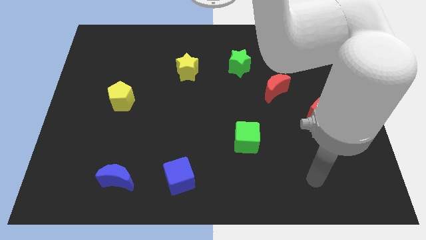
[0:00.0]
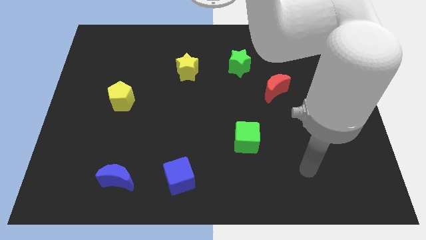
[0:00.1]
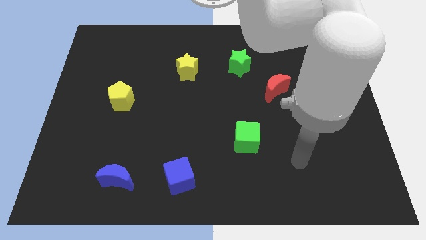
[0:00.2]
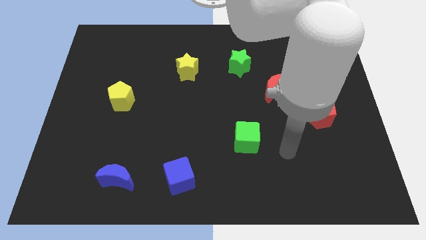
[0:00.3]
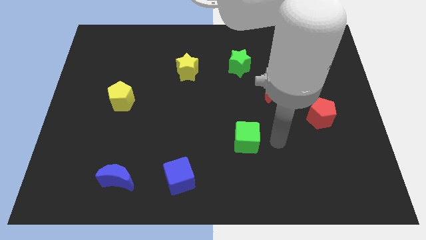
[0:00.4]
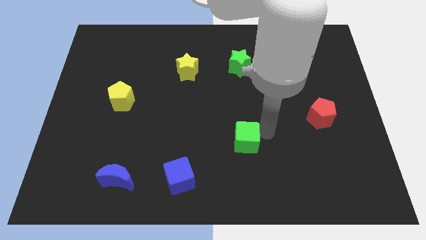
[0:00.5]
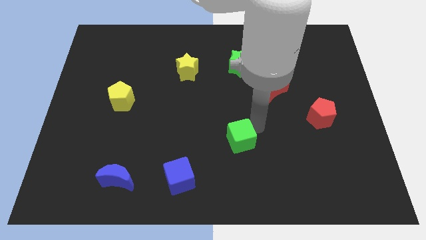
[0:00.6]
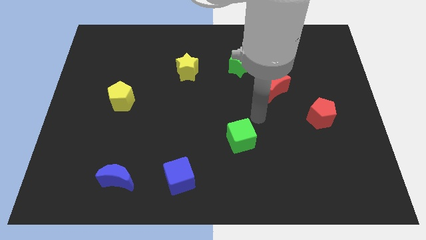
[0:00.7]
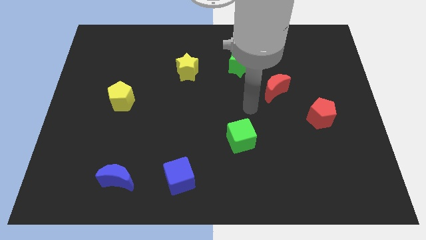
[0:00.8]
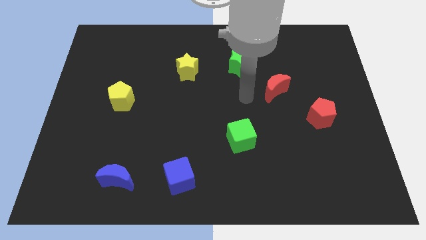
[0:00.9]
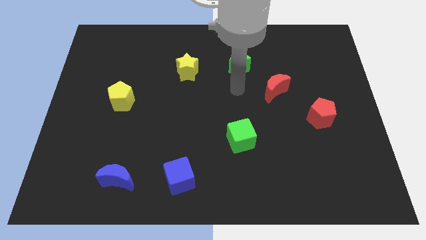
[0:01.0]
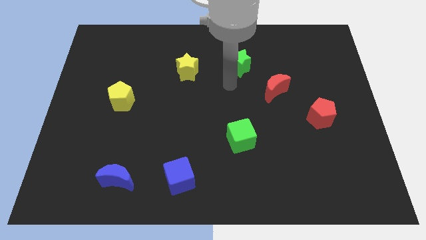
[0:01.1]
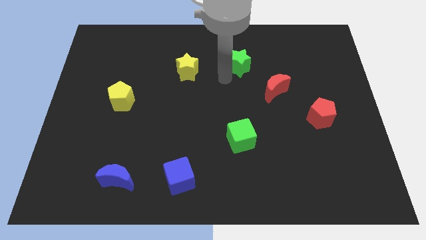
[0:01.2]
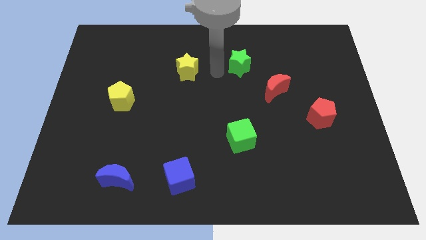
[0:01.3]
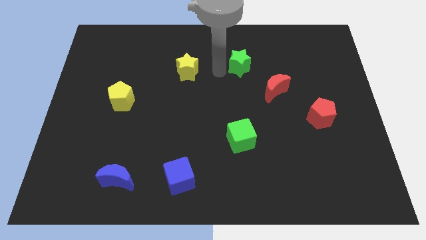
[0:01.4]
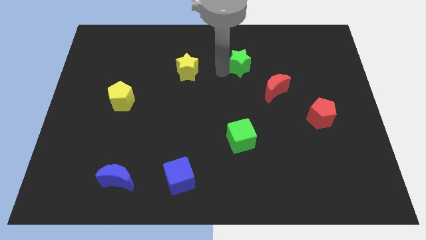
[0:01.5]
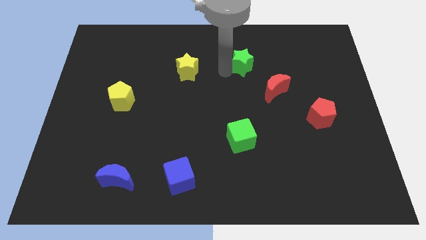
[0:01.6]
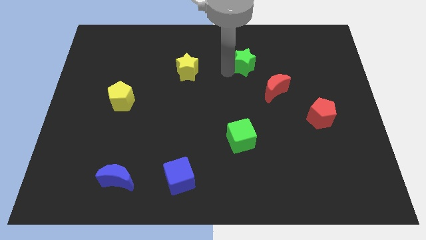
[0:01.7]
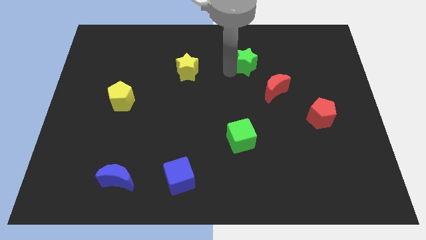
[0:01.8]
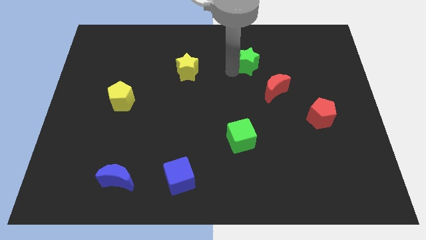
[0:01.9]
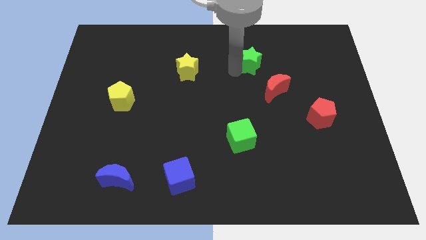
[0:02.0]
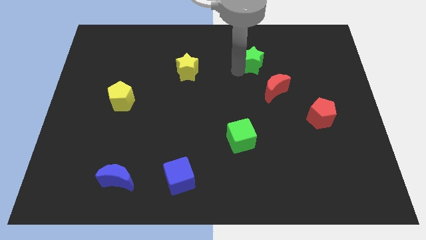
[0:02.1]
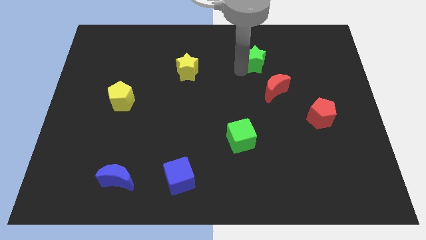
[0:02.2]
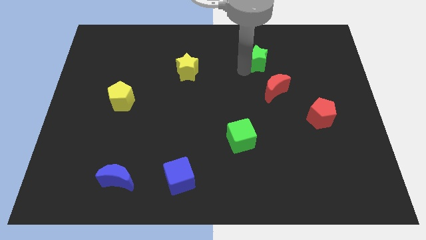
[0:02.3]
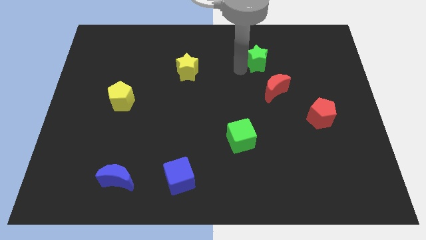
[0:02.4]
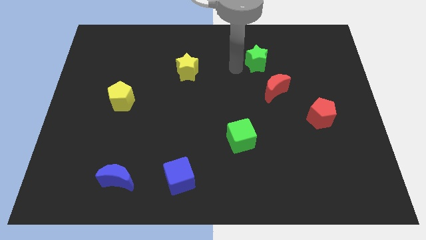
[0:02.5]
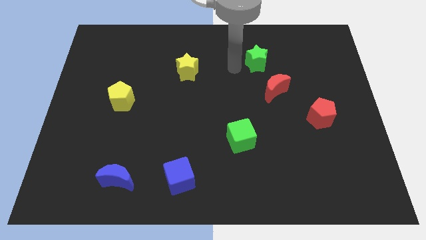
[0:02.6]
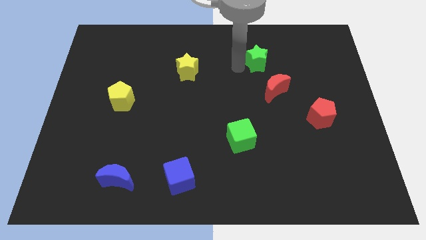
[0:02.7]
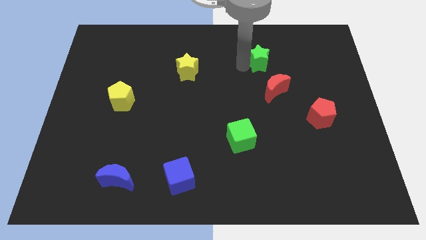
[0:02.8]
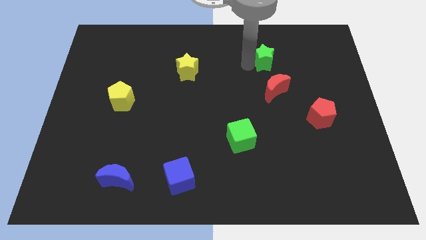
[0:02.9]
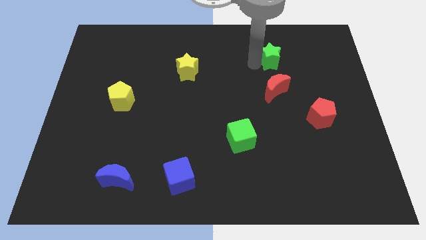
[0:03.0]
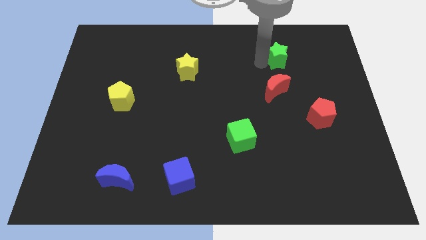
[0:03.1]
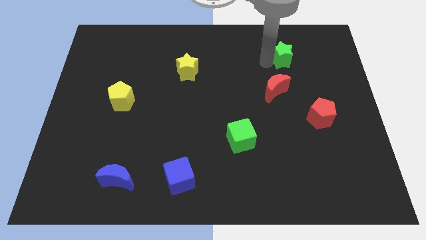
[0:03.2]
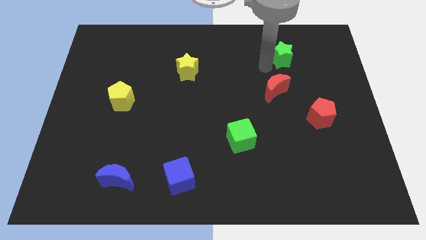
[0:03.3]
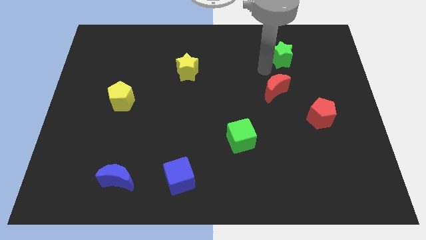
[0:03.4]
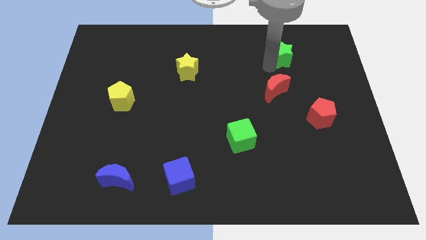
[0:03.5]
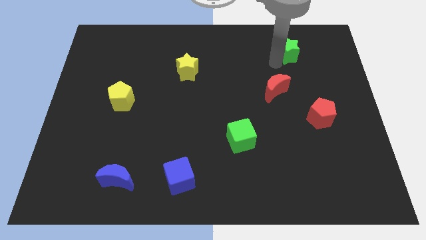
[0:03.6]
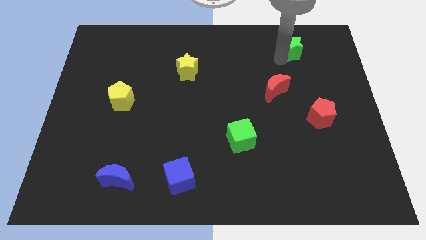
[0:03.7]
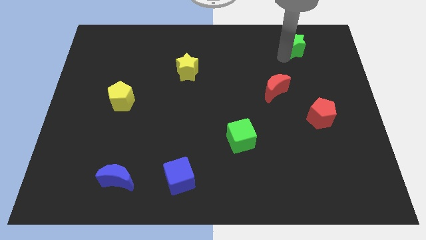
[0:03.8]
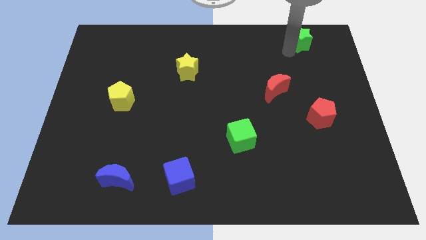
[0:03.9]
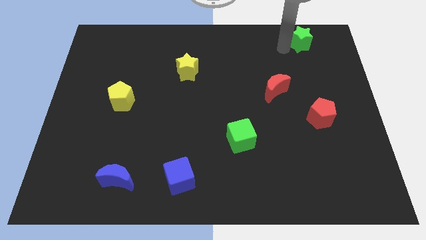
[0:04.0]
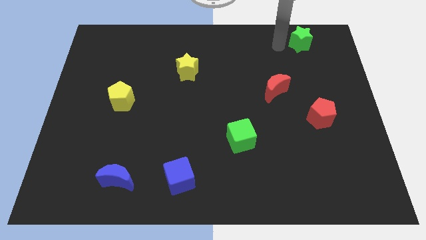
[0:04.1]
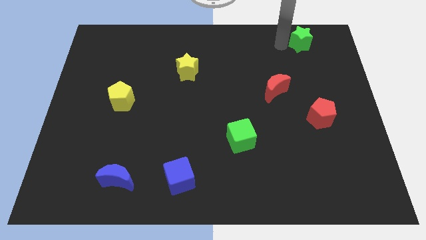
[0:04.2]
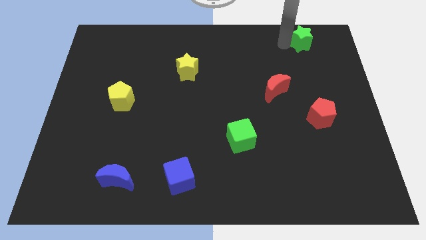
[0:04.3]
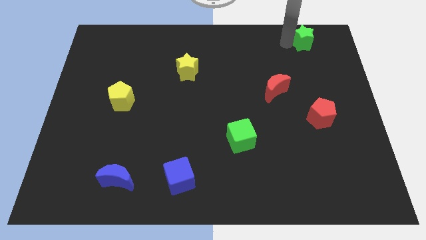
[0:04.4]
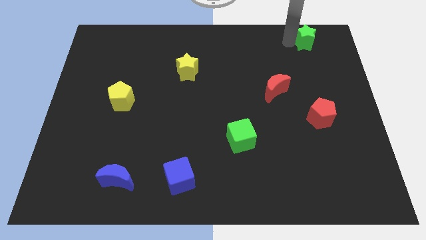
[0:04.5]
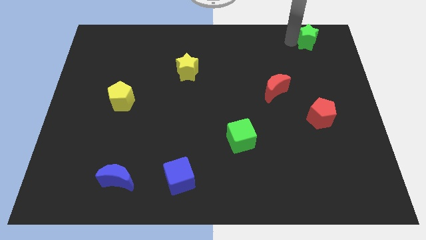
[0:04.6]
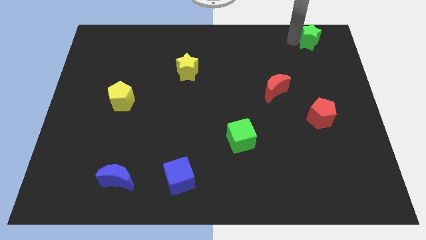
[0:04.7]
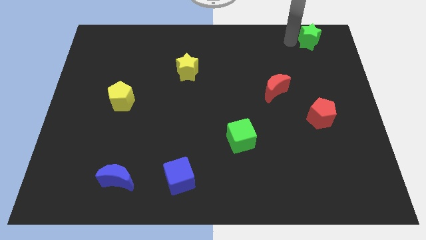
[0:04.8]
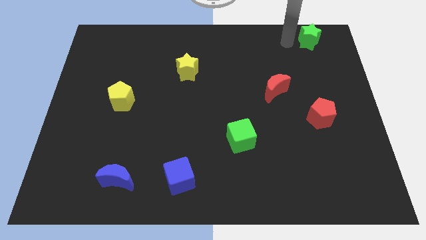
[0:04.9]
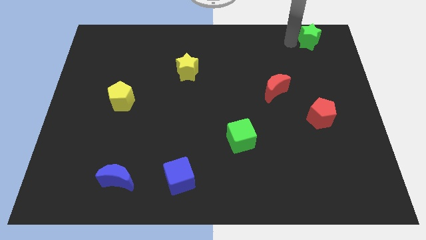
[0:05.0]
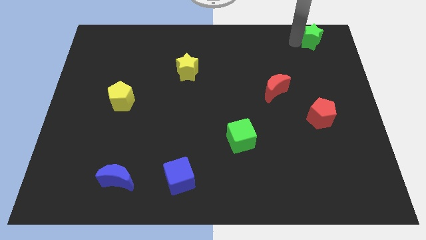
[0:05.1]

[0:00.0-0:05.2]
put the green star to the top right of the board

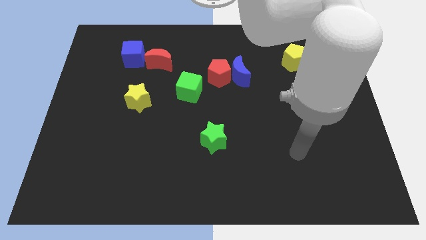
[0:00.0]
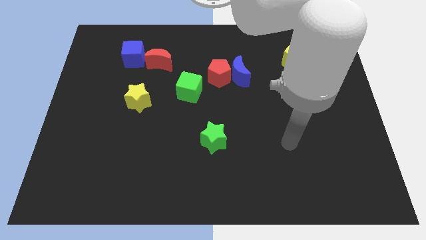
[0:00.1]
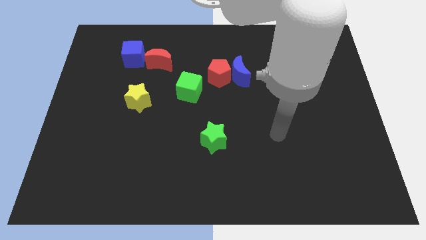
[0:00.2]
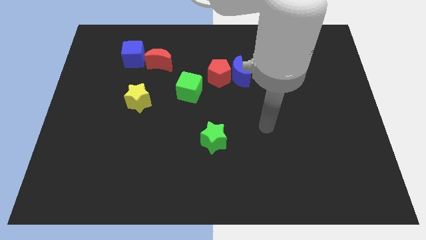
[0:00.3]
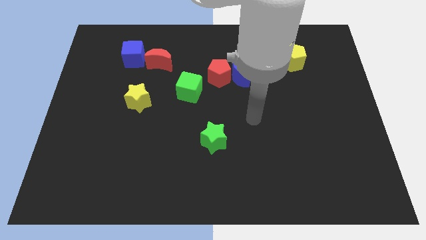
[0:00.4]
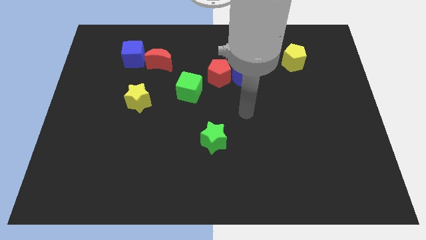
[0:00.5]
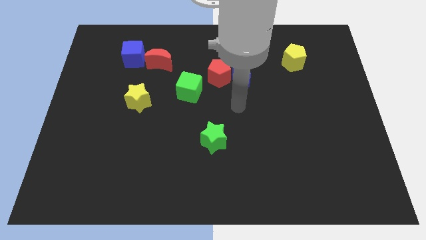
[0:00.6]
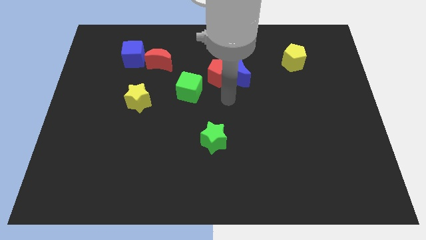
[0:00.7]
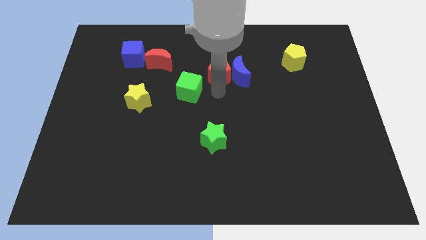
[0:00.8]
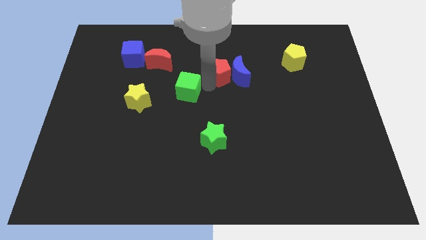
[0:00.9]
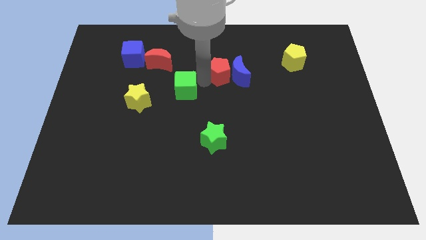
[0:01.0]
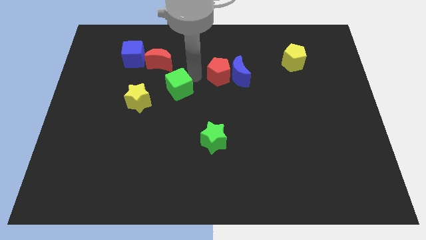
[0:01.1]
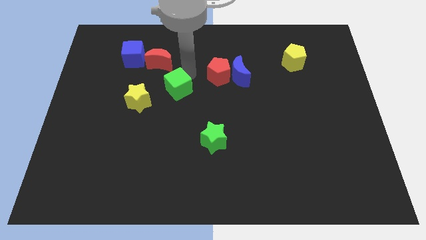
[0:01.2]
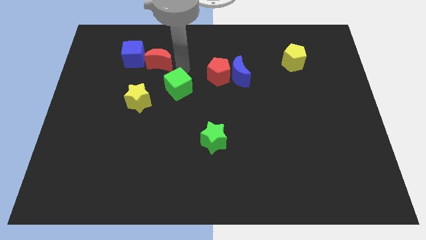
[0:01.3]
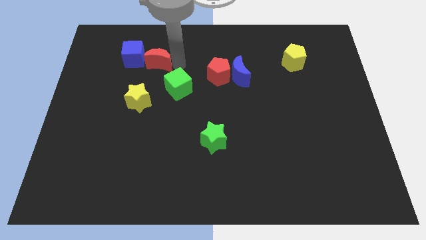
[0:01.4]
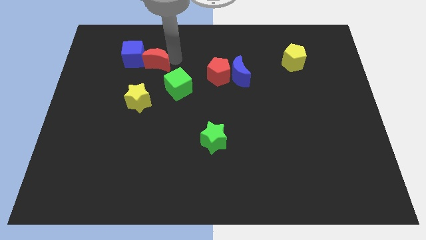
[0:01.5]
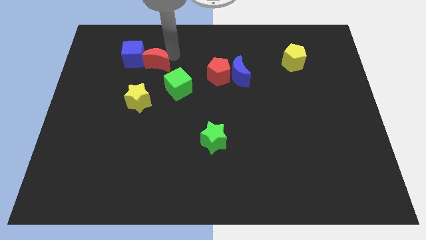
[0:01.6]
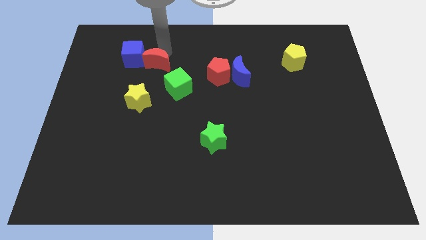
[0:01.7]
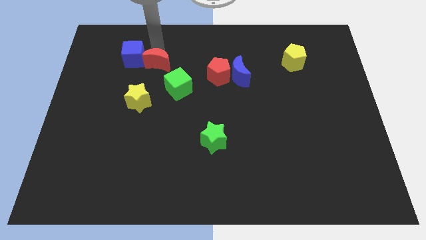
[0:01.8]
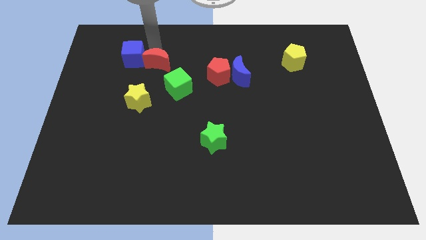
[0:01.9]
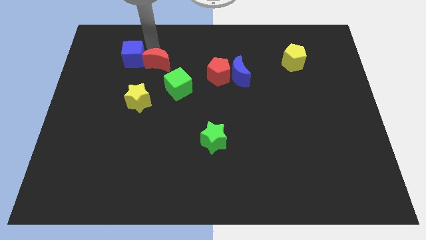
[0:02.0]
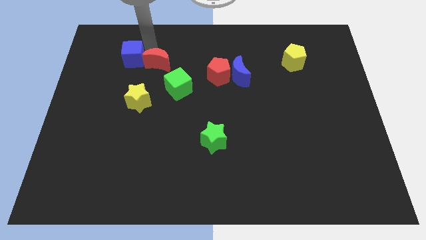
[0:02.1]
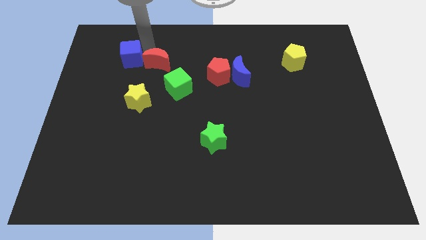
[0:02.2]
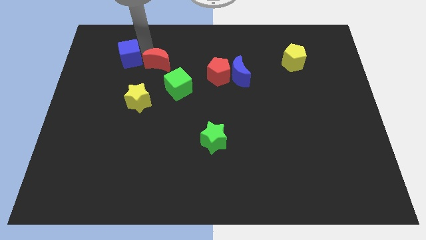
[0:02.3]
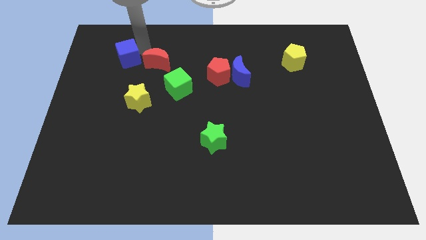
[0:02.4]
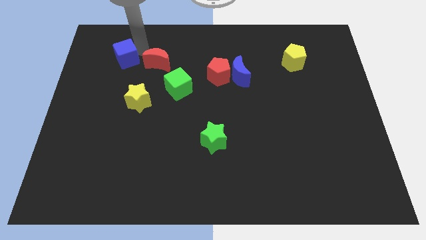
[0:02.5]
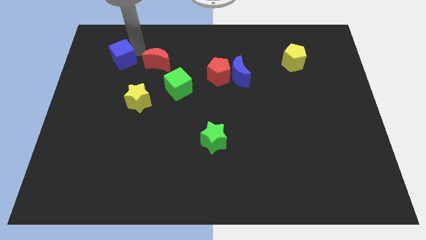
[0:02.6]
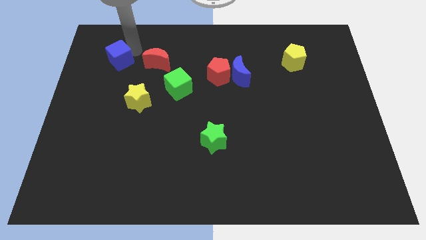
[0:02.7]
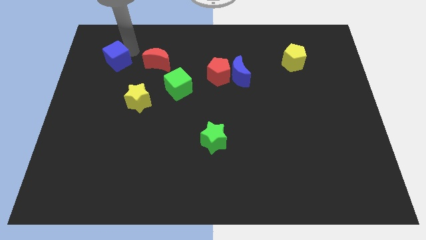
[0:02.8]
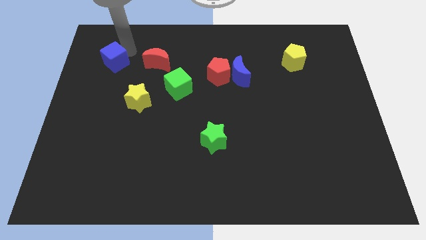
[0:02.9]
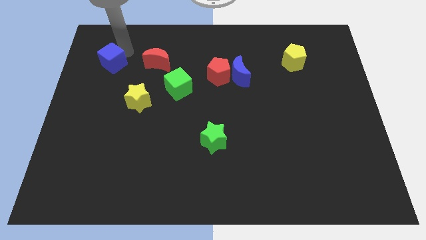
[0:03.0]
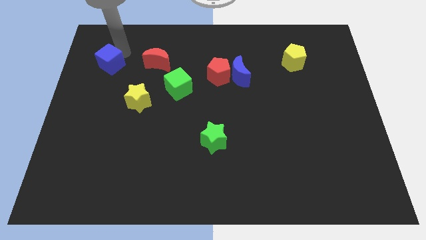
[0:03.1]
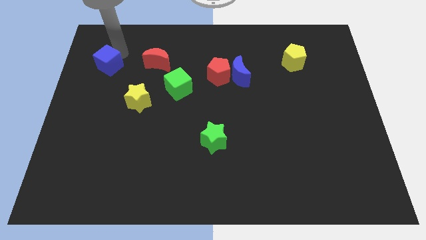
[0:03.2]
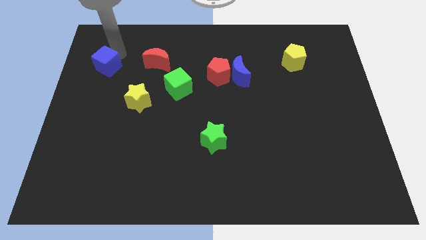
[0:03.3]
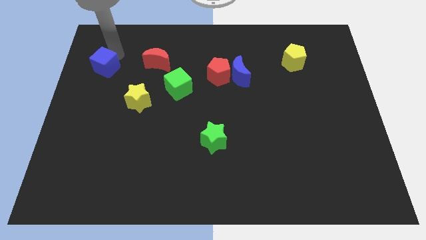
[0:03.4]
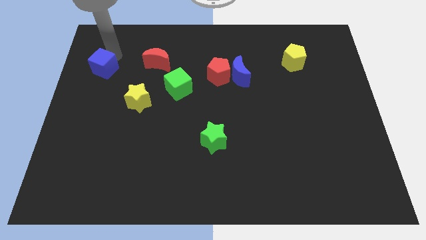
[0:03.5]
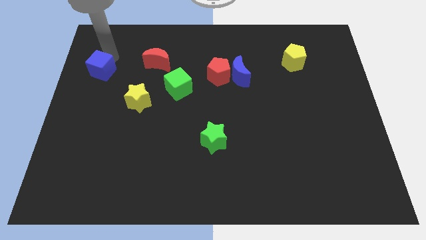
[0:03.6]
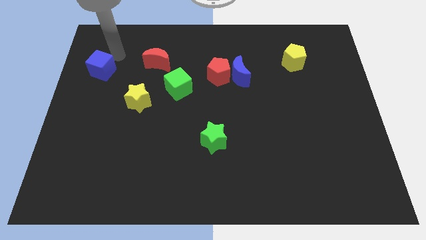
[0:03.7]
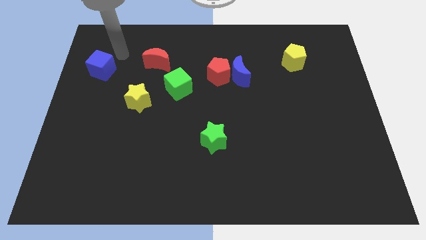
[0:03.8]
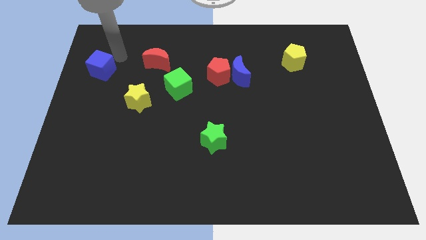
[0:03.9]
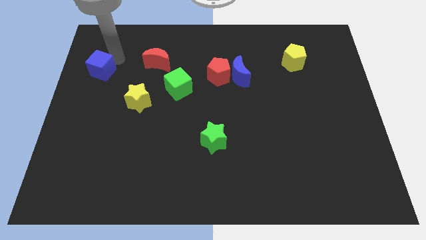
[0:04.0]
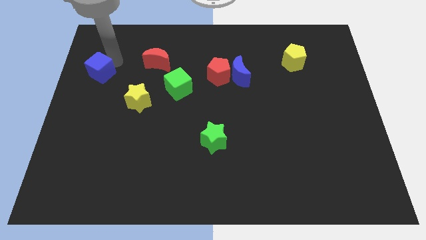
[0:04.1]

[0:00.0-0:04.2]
push the blue cube to the left side
